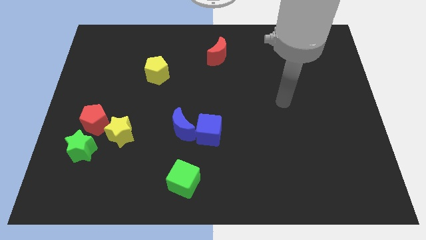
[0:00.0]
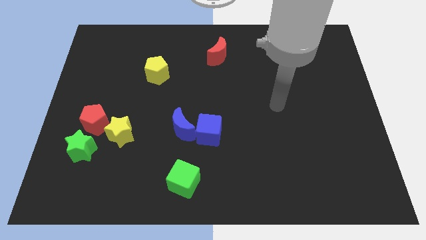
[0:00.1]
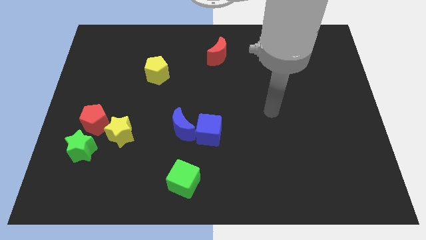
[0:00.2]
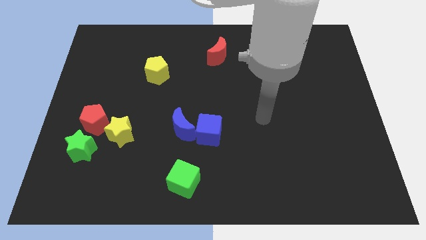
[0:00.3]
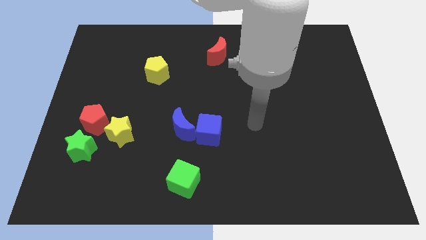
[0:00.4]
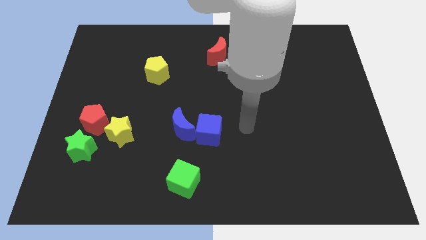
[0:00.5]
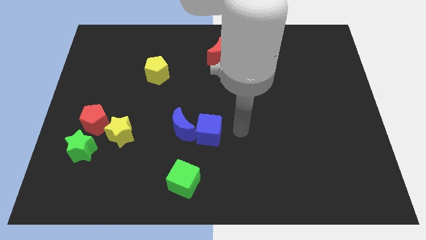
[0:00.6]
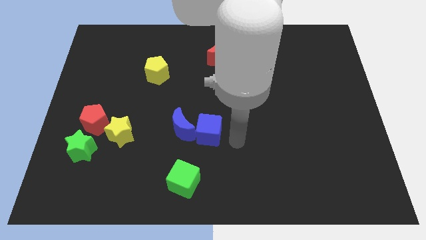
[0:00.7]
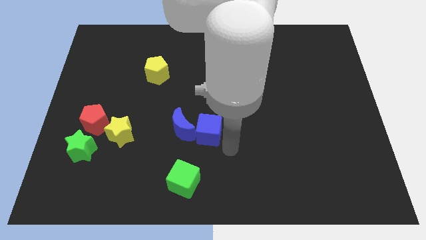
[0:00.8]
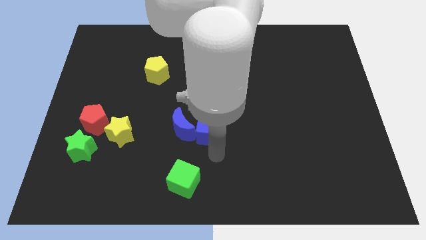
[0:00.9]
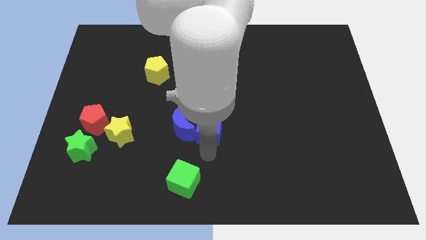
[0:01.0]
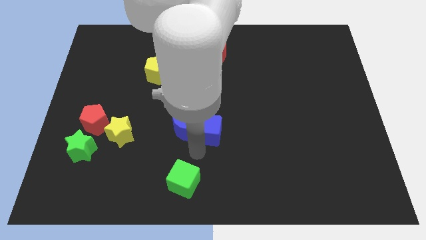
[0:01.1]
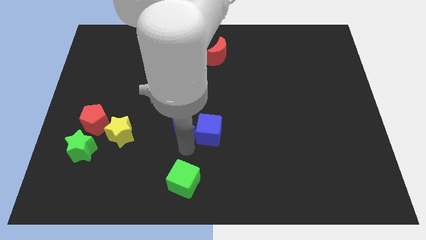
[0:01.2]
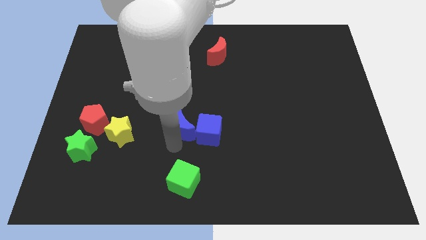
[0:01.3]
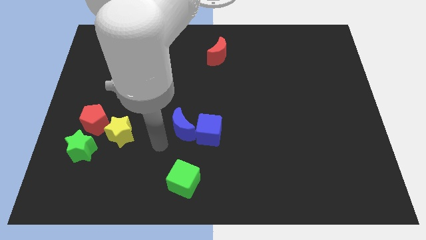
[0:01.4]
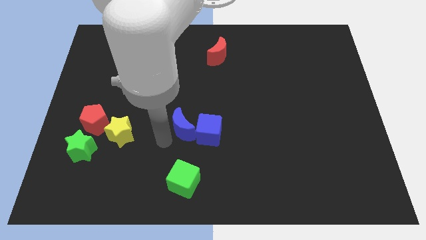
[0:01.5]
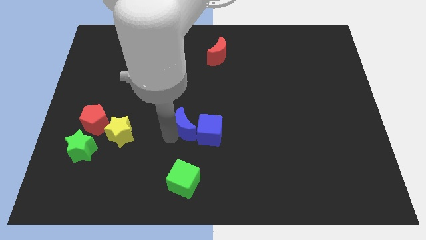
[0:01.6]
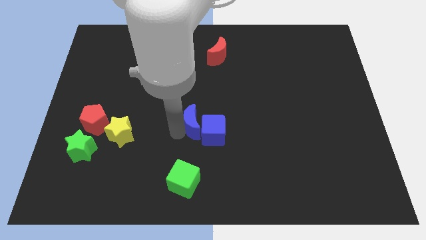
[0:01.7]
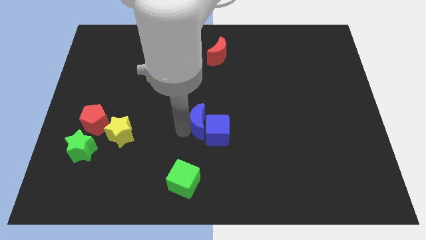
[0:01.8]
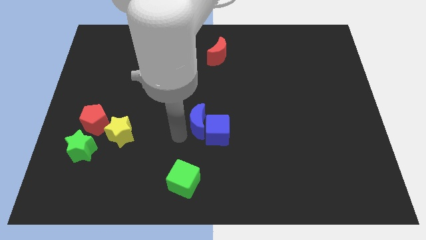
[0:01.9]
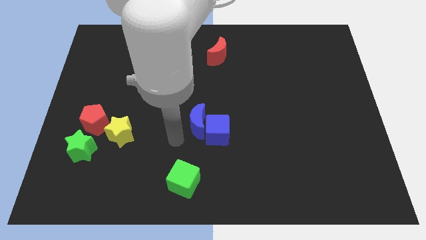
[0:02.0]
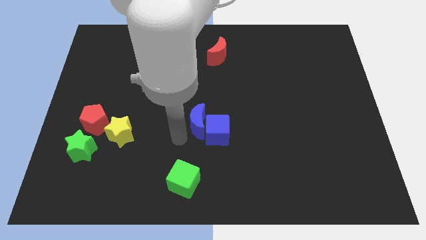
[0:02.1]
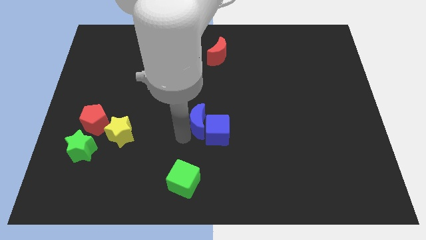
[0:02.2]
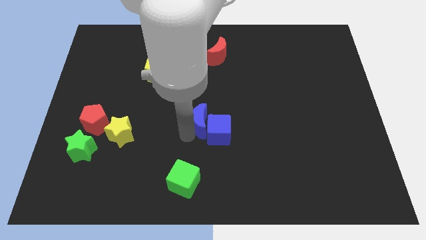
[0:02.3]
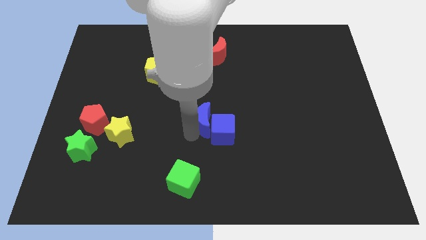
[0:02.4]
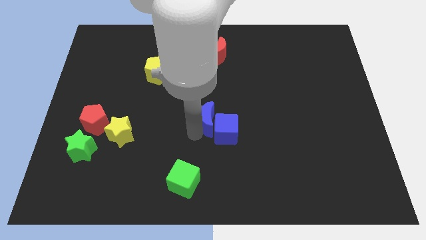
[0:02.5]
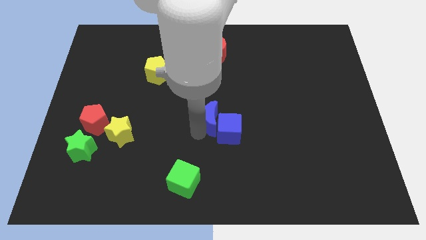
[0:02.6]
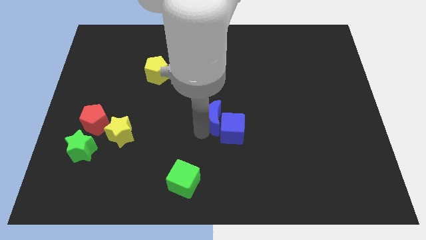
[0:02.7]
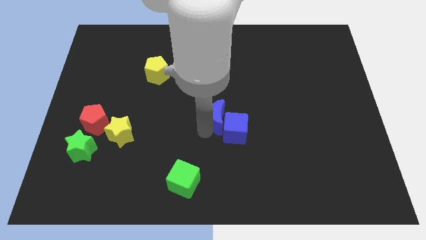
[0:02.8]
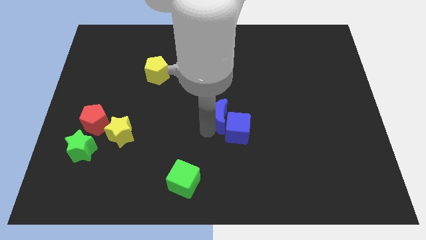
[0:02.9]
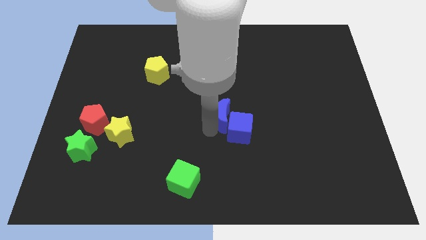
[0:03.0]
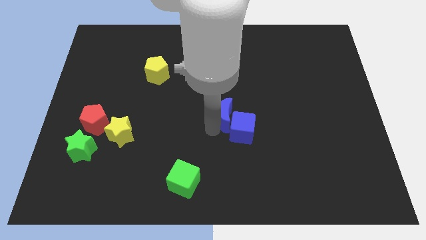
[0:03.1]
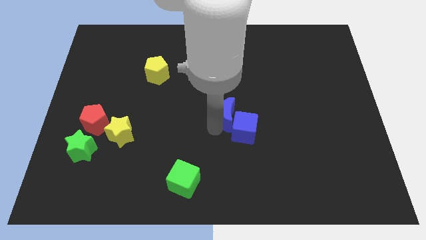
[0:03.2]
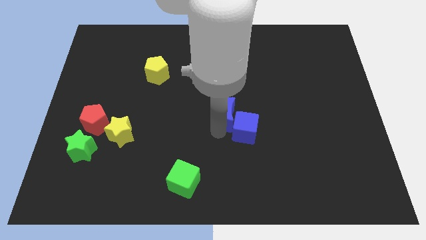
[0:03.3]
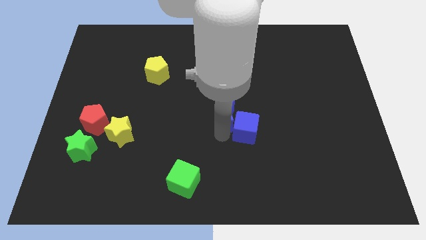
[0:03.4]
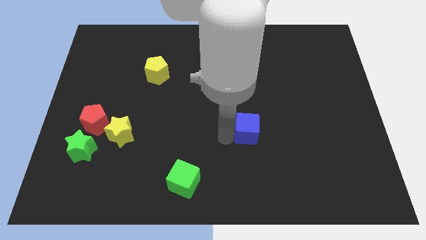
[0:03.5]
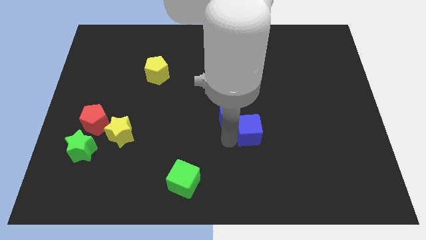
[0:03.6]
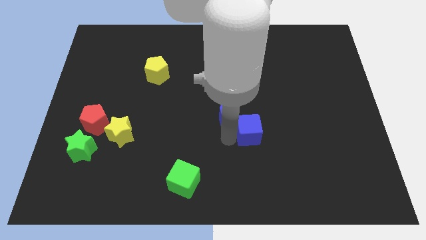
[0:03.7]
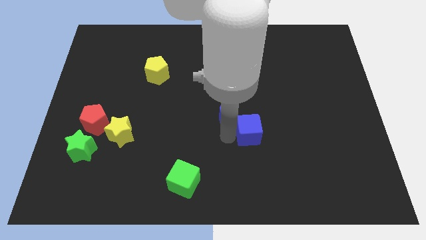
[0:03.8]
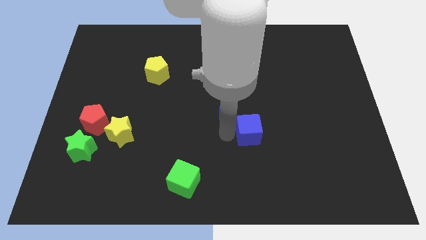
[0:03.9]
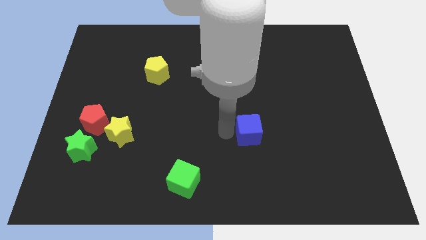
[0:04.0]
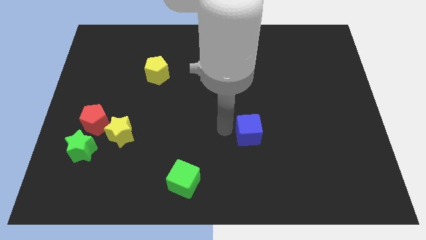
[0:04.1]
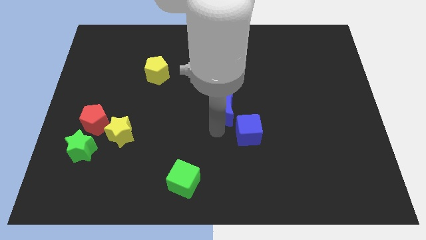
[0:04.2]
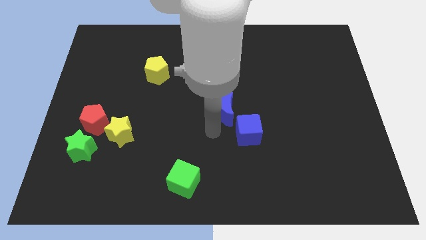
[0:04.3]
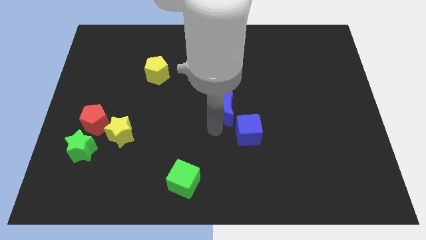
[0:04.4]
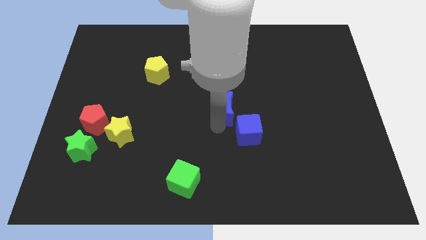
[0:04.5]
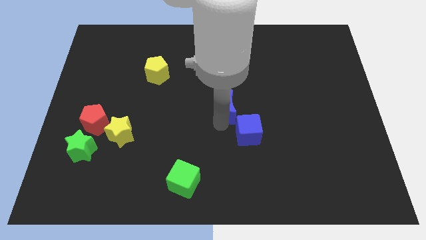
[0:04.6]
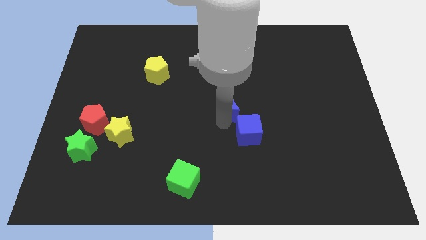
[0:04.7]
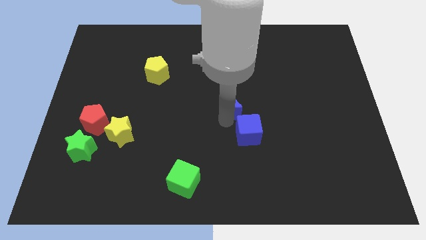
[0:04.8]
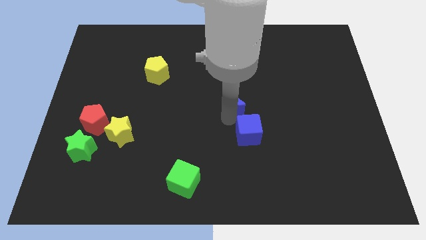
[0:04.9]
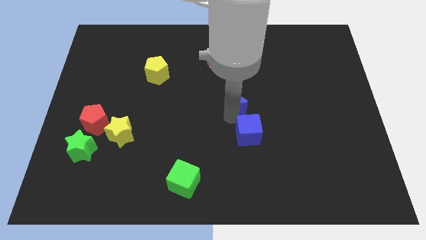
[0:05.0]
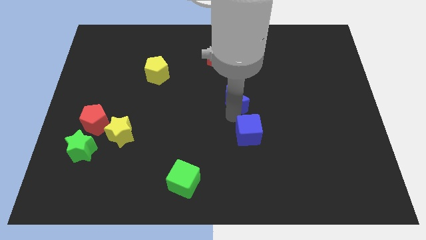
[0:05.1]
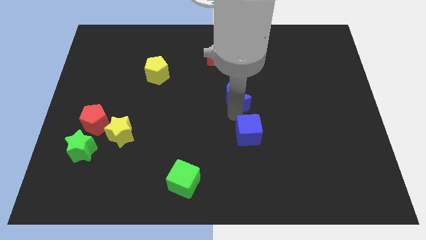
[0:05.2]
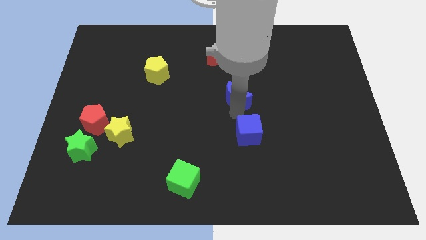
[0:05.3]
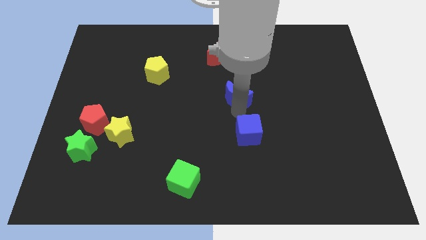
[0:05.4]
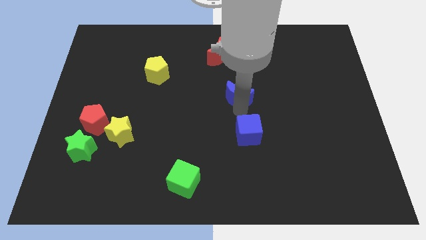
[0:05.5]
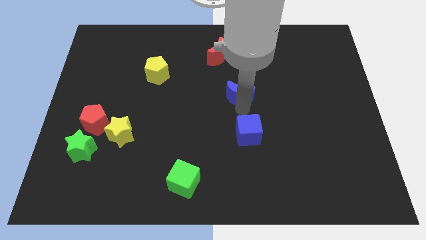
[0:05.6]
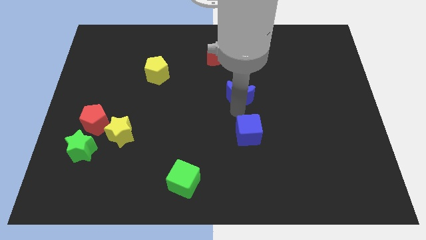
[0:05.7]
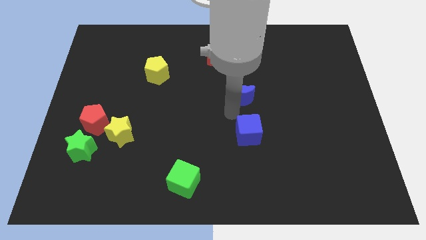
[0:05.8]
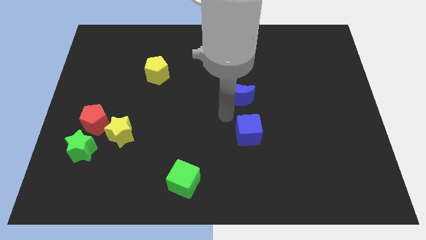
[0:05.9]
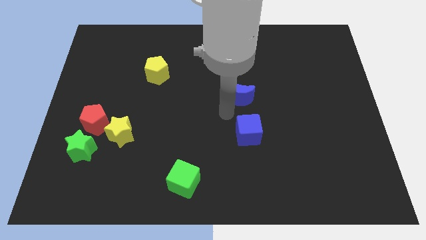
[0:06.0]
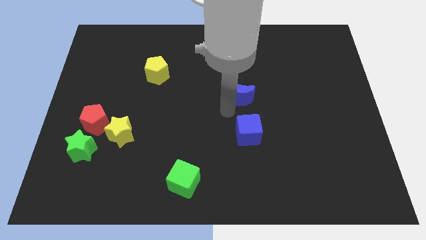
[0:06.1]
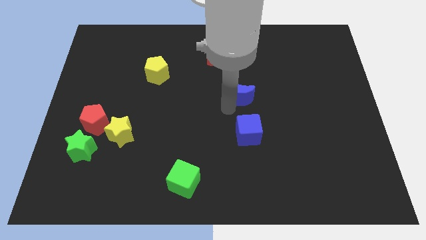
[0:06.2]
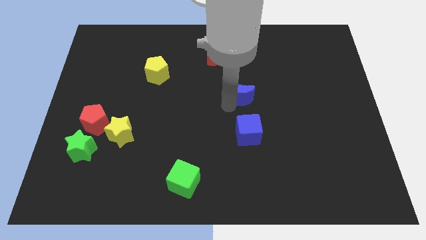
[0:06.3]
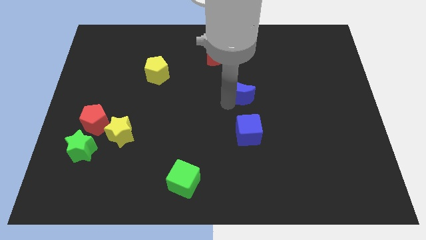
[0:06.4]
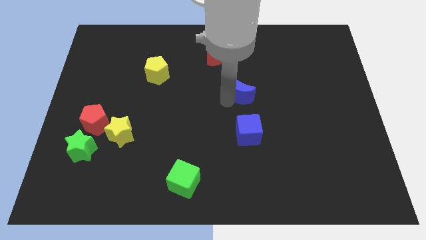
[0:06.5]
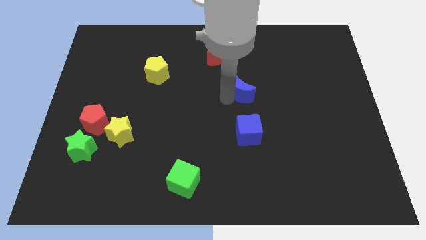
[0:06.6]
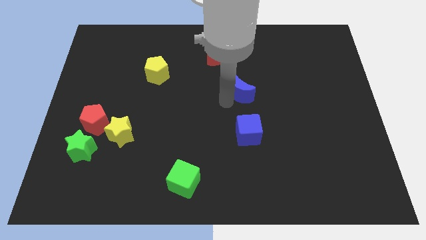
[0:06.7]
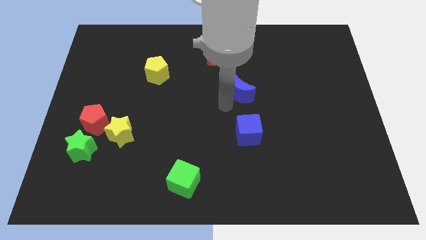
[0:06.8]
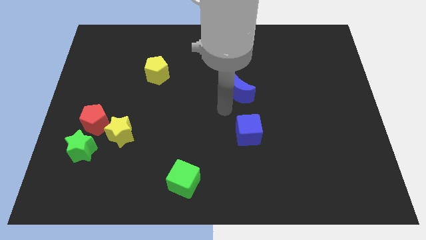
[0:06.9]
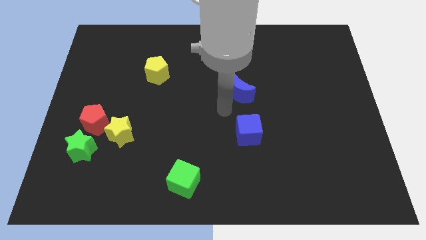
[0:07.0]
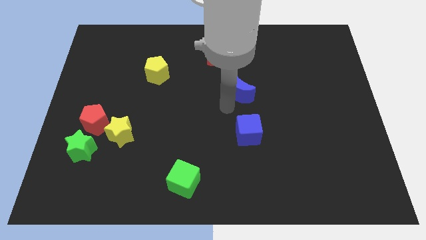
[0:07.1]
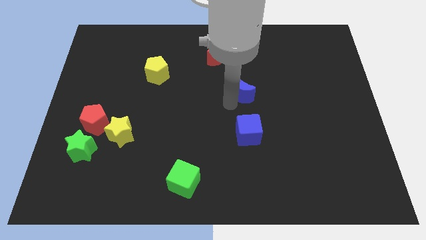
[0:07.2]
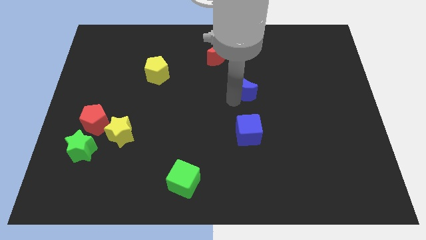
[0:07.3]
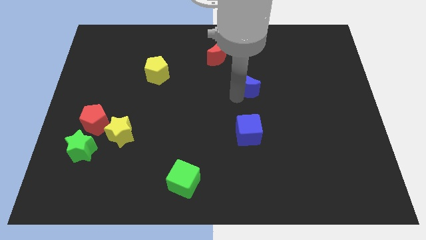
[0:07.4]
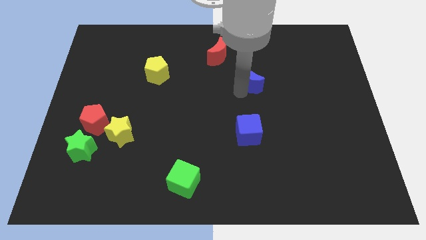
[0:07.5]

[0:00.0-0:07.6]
move the blue moon up and then right

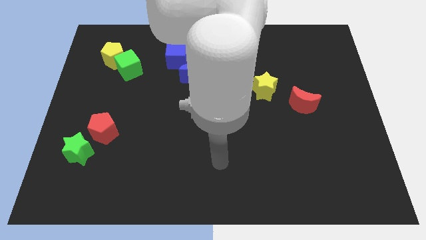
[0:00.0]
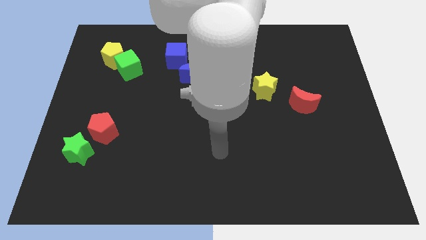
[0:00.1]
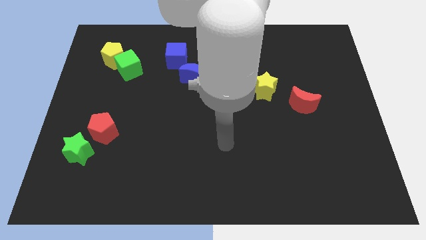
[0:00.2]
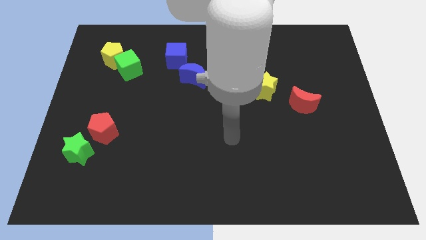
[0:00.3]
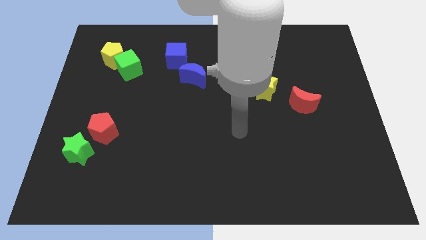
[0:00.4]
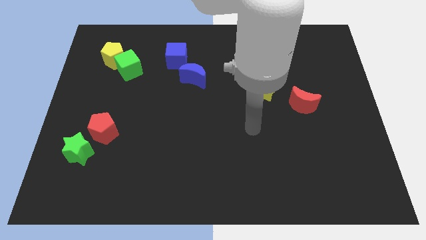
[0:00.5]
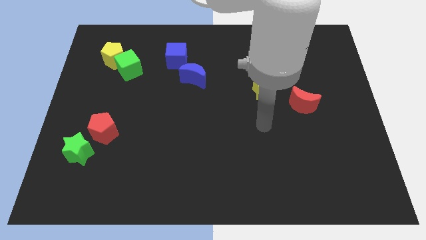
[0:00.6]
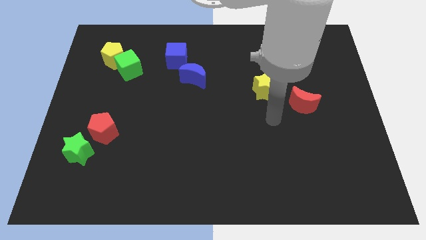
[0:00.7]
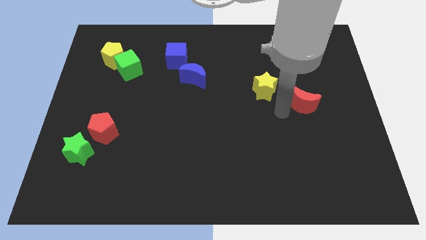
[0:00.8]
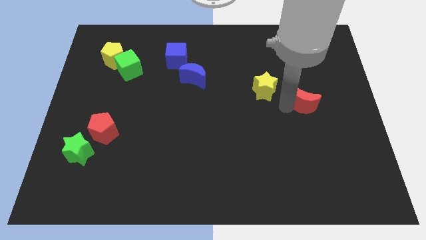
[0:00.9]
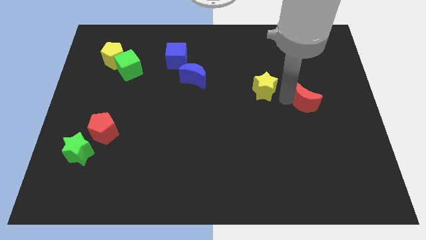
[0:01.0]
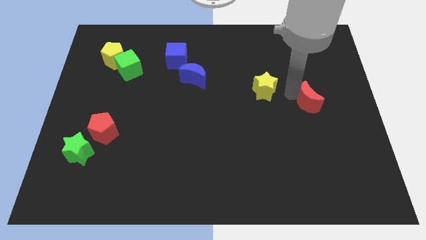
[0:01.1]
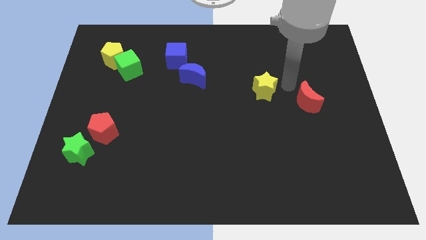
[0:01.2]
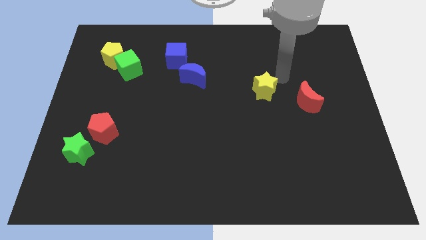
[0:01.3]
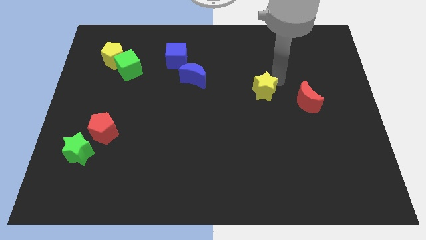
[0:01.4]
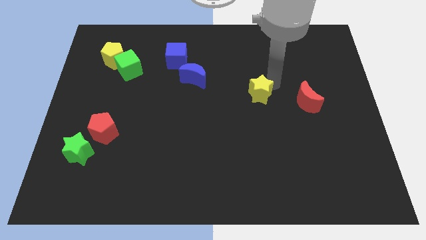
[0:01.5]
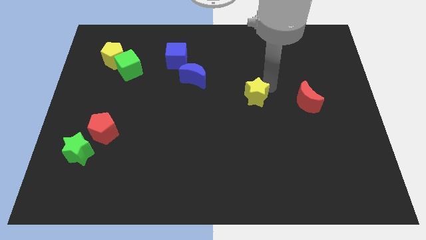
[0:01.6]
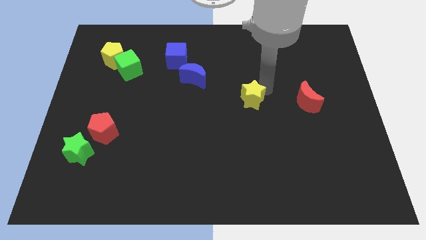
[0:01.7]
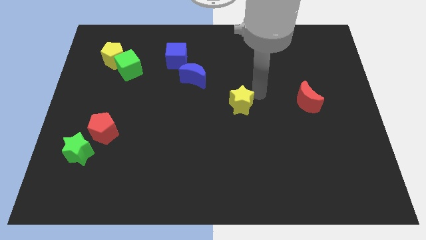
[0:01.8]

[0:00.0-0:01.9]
slide the yellow star a little bit down and left diagonally
